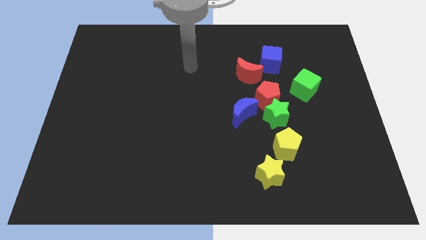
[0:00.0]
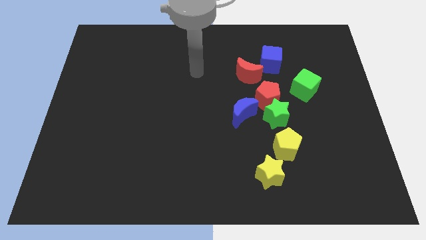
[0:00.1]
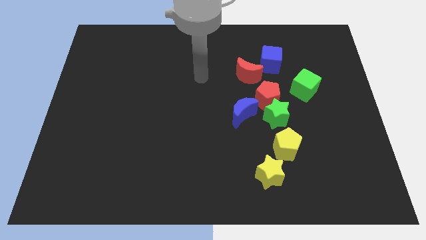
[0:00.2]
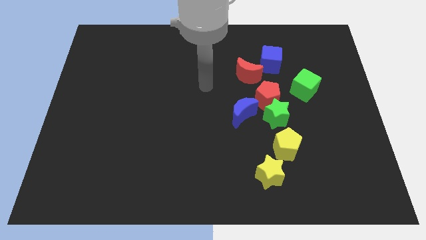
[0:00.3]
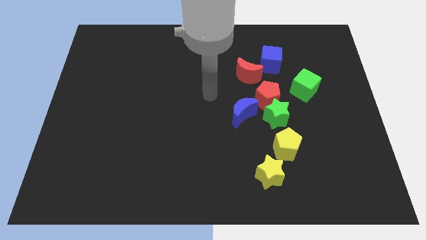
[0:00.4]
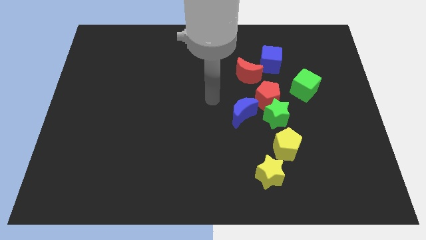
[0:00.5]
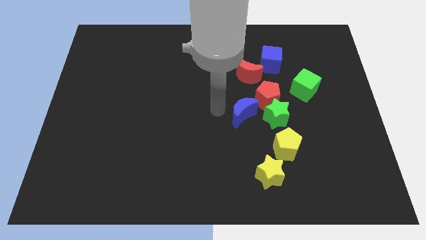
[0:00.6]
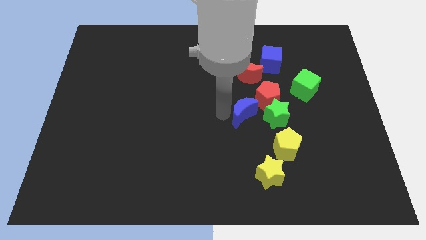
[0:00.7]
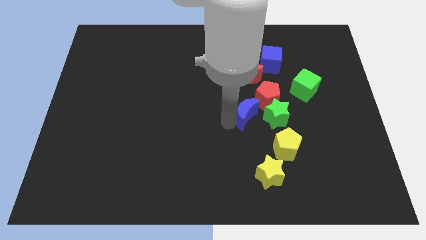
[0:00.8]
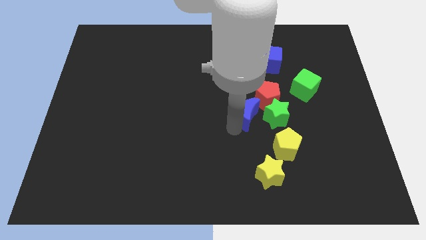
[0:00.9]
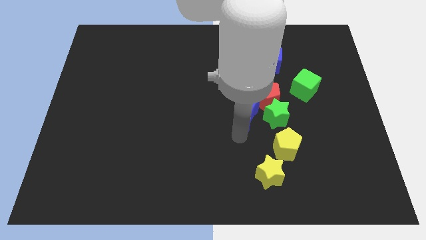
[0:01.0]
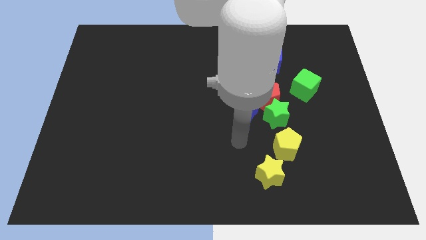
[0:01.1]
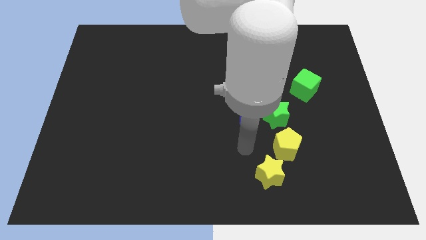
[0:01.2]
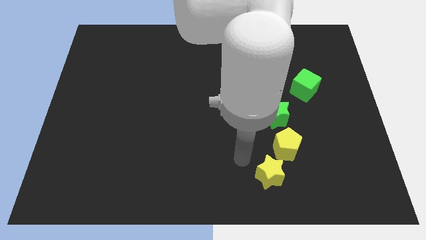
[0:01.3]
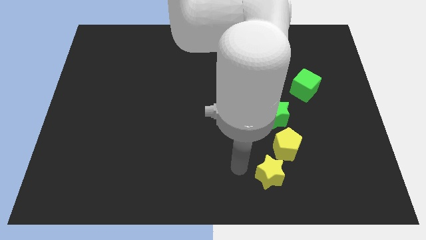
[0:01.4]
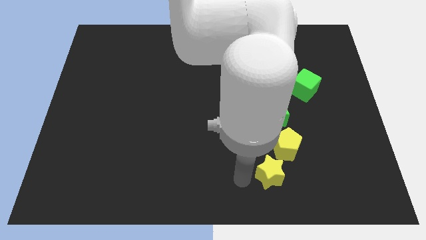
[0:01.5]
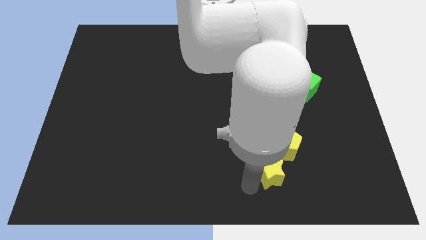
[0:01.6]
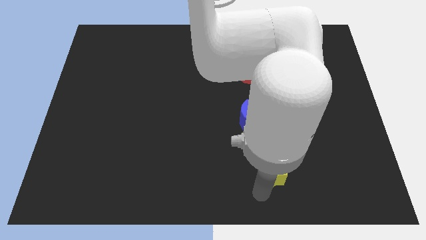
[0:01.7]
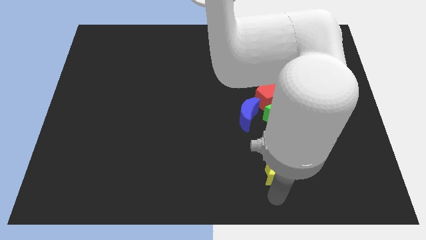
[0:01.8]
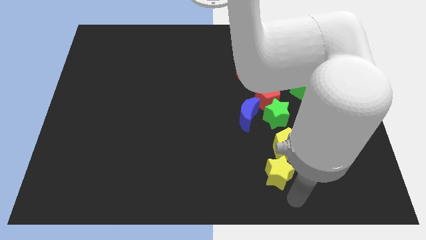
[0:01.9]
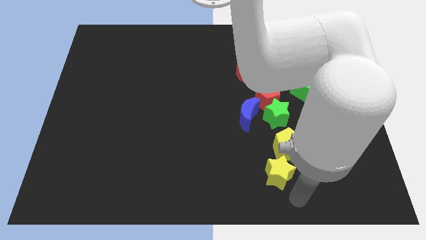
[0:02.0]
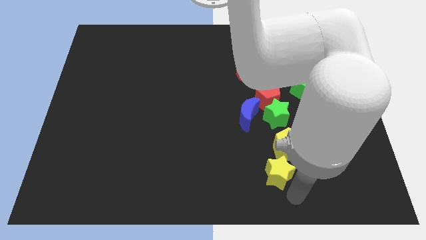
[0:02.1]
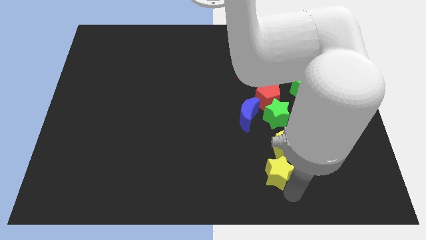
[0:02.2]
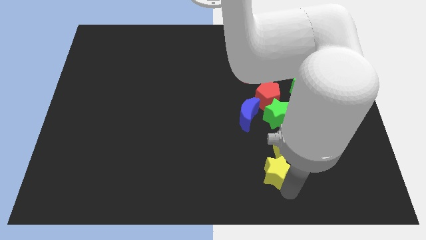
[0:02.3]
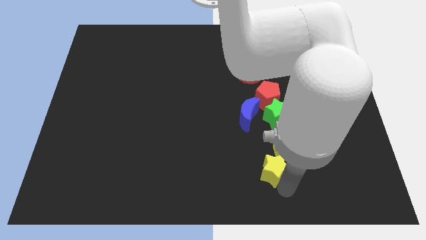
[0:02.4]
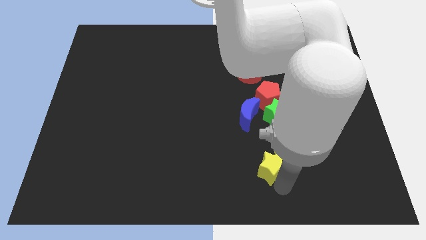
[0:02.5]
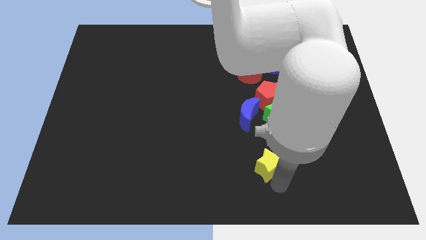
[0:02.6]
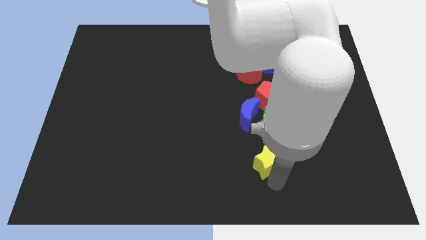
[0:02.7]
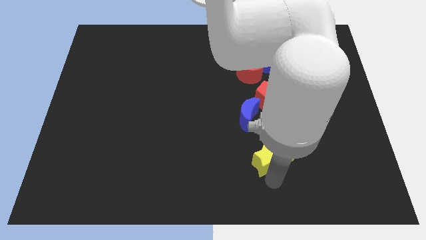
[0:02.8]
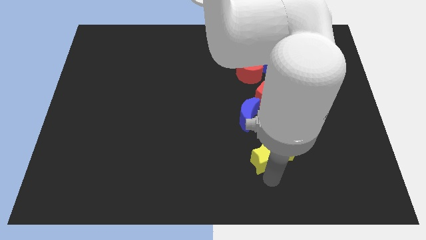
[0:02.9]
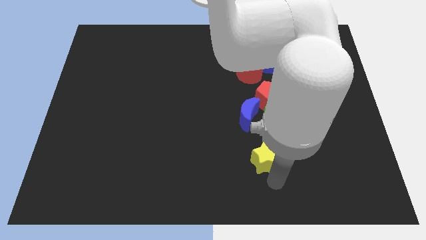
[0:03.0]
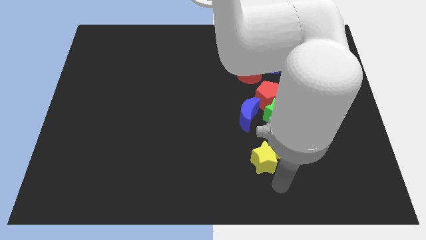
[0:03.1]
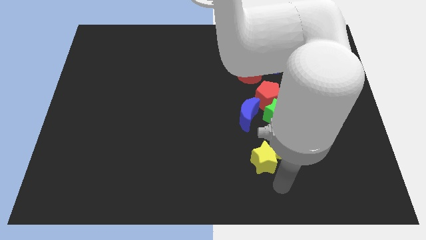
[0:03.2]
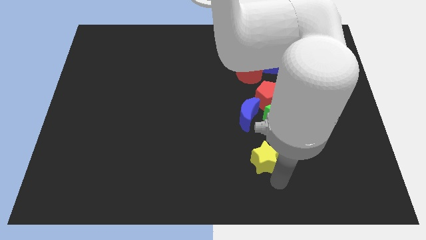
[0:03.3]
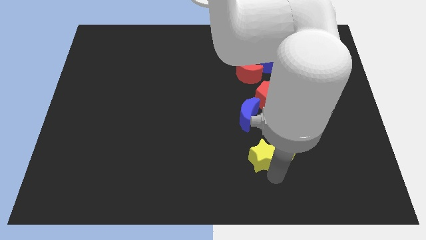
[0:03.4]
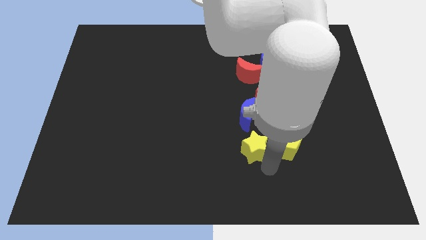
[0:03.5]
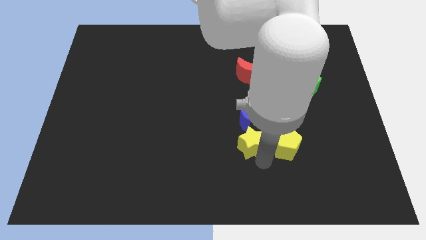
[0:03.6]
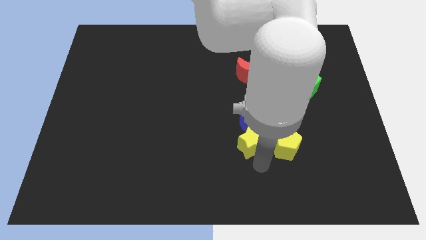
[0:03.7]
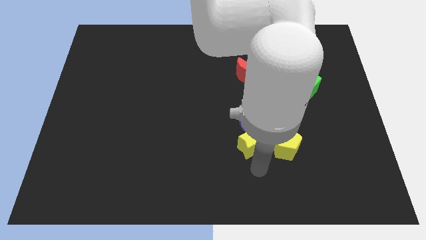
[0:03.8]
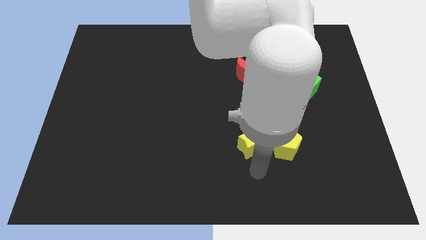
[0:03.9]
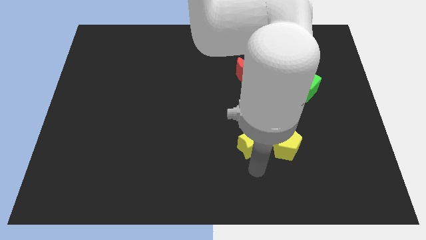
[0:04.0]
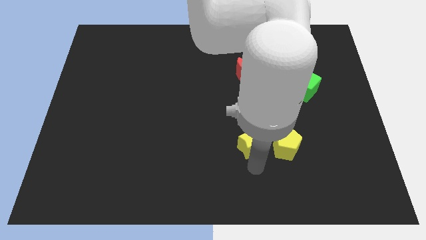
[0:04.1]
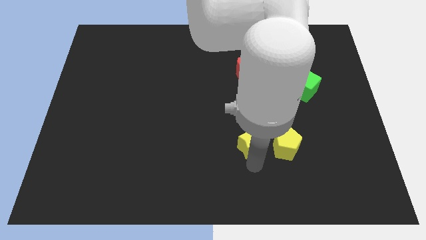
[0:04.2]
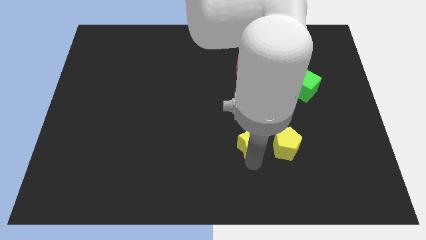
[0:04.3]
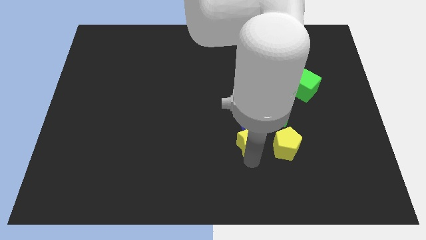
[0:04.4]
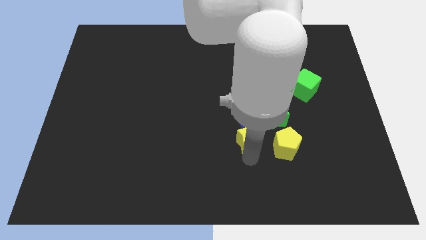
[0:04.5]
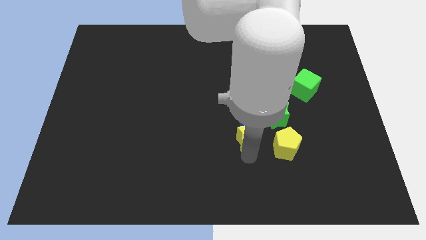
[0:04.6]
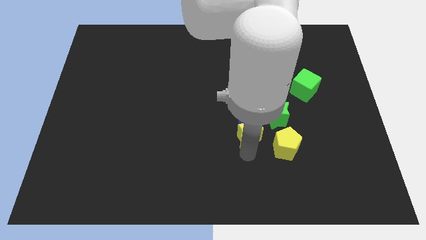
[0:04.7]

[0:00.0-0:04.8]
move the yellow star to the blue moon

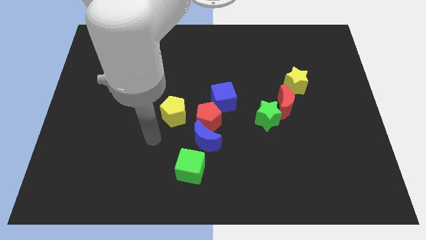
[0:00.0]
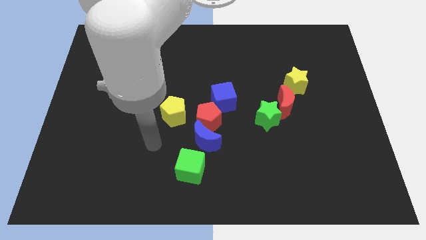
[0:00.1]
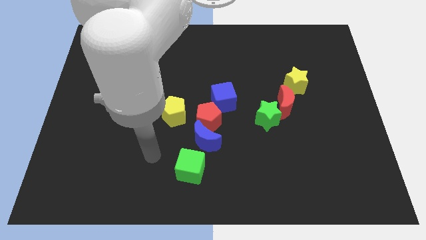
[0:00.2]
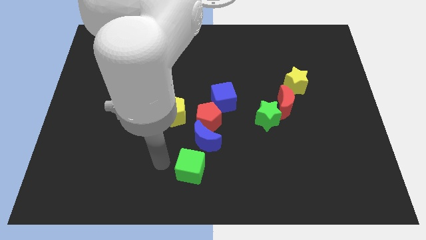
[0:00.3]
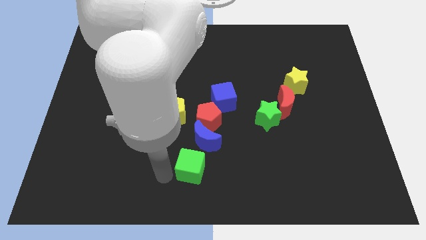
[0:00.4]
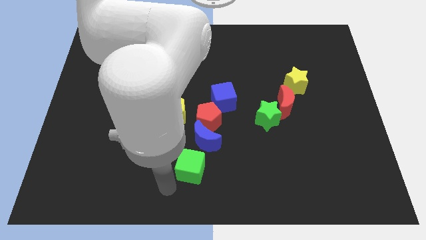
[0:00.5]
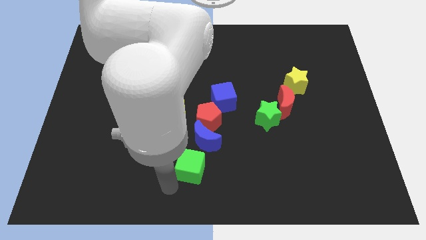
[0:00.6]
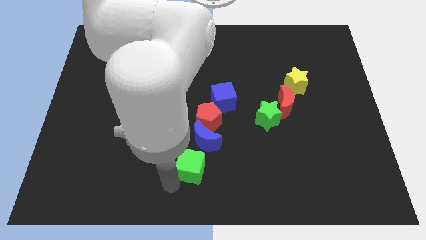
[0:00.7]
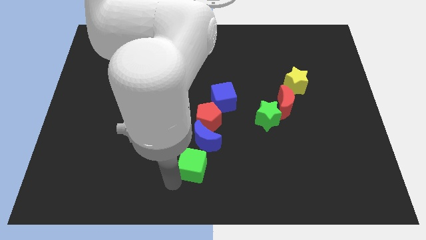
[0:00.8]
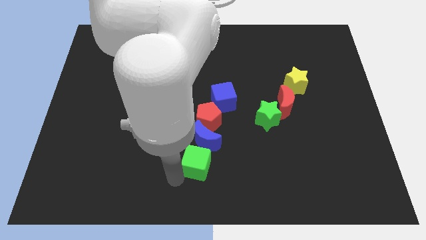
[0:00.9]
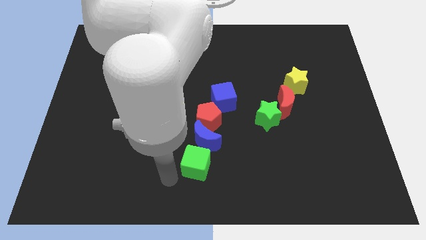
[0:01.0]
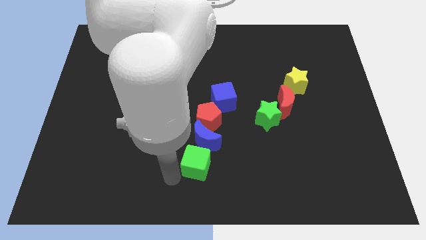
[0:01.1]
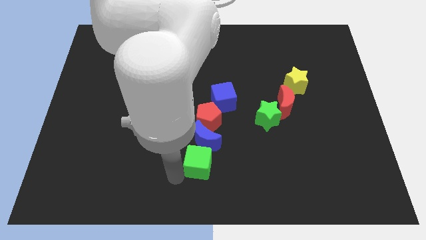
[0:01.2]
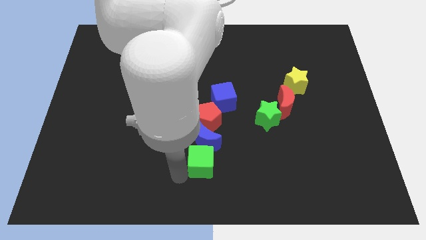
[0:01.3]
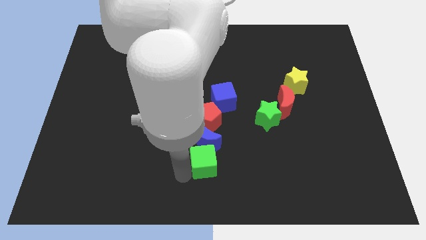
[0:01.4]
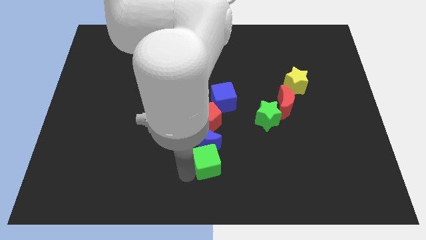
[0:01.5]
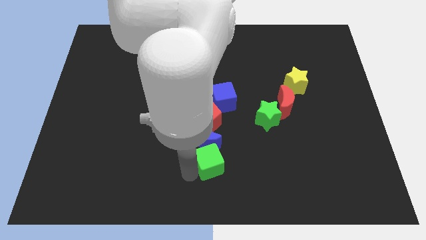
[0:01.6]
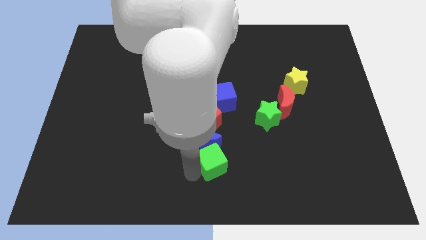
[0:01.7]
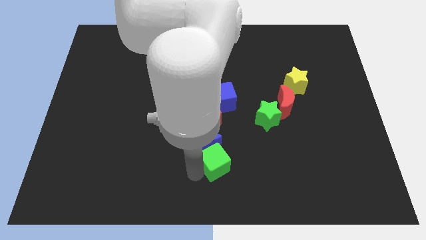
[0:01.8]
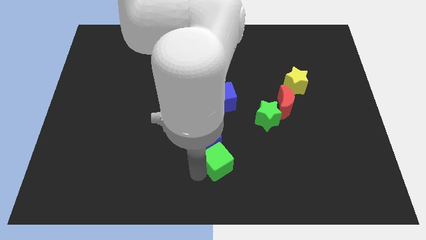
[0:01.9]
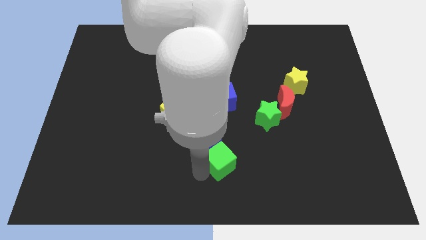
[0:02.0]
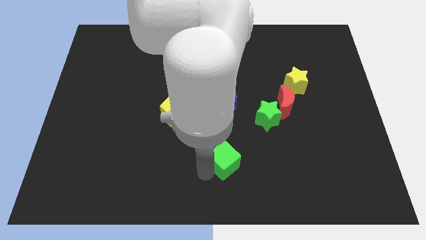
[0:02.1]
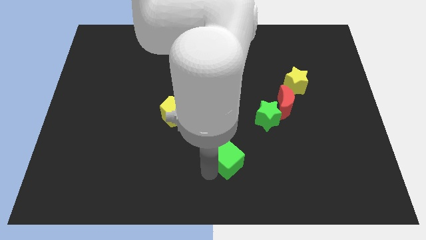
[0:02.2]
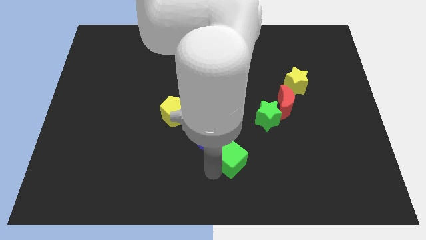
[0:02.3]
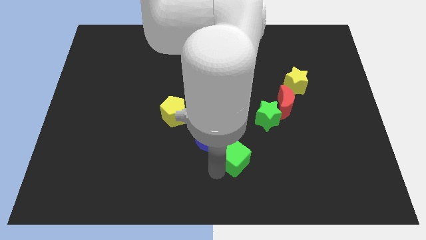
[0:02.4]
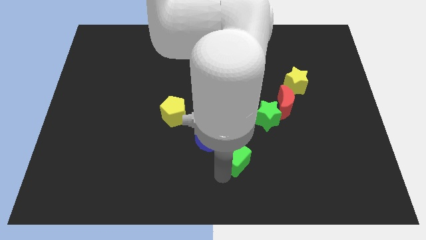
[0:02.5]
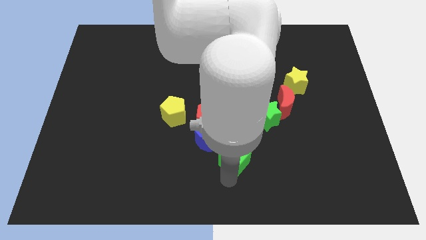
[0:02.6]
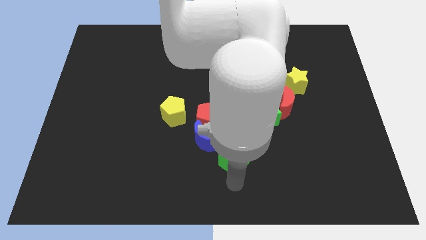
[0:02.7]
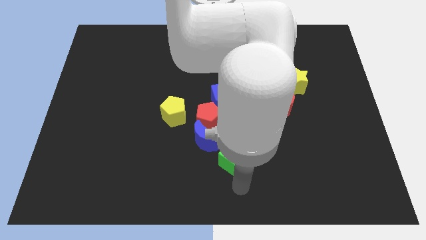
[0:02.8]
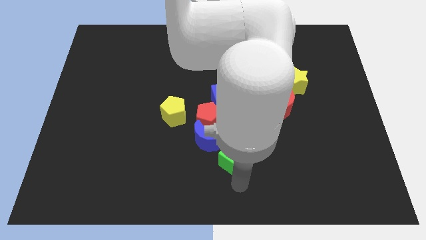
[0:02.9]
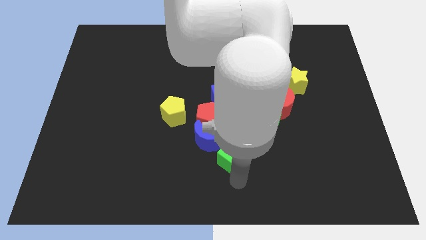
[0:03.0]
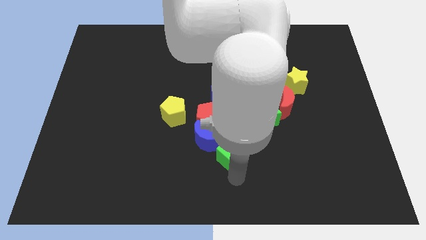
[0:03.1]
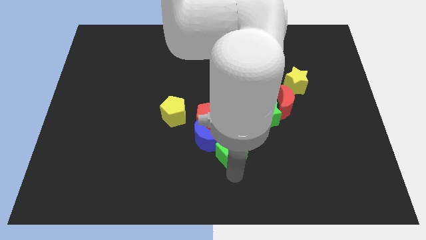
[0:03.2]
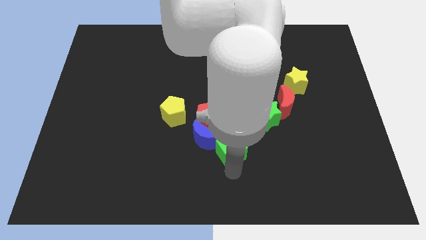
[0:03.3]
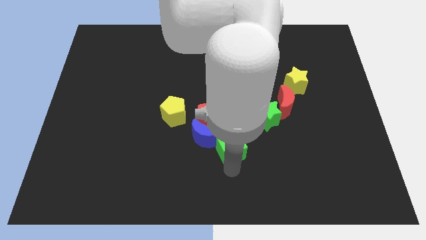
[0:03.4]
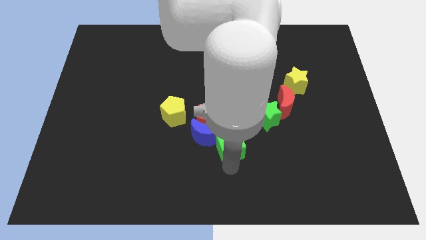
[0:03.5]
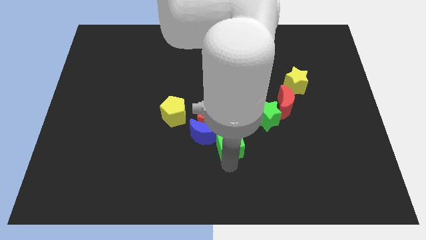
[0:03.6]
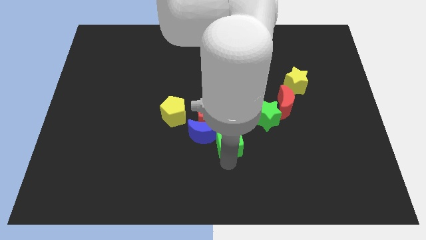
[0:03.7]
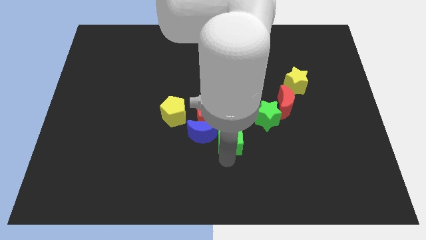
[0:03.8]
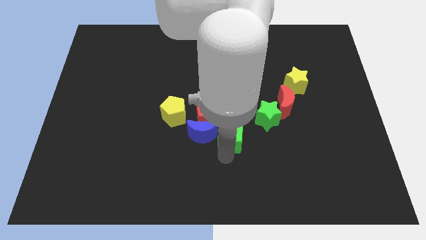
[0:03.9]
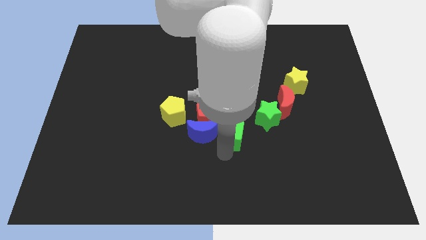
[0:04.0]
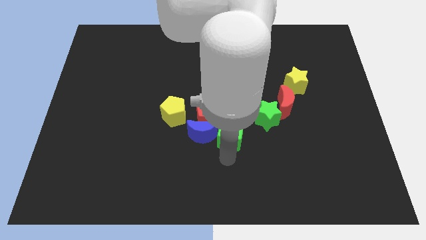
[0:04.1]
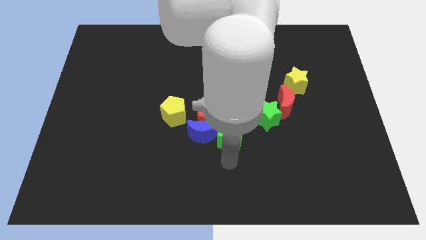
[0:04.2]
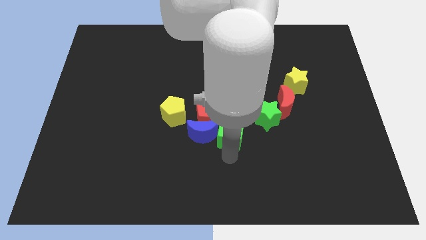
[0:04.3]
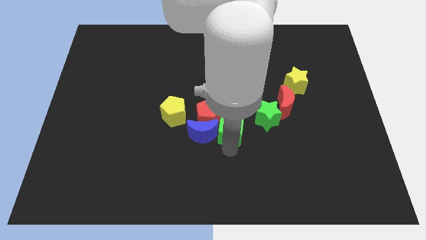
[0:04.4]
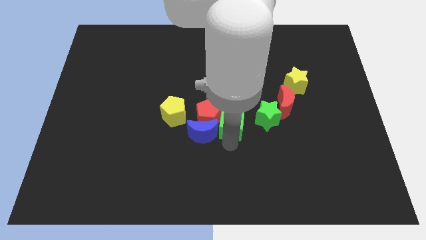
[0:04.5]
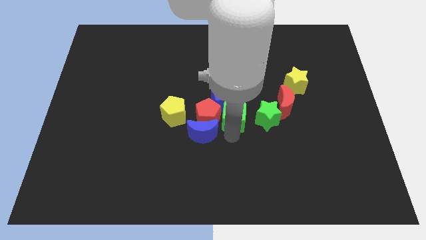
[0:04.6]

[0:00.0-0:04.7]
push the green cube to the blue cube
